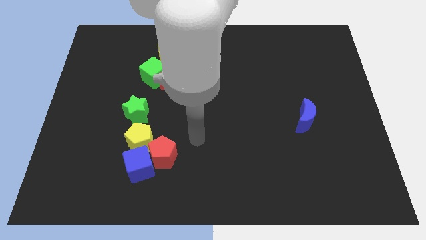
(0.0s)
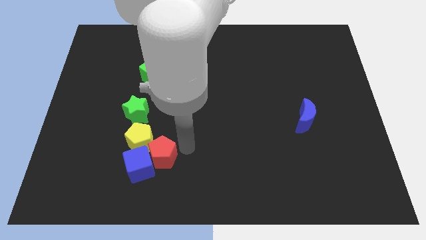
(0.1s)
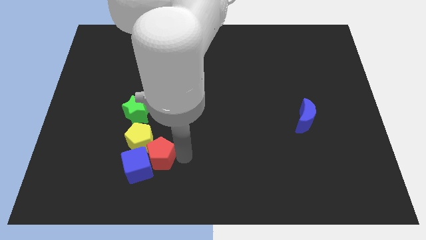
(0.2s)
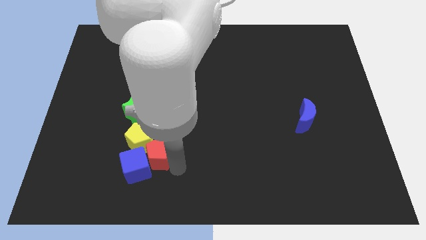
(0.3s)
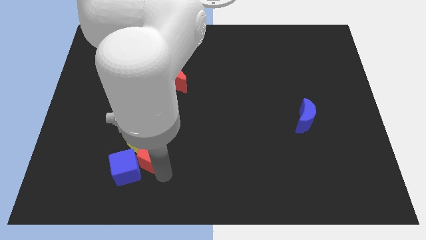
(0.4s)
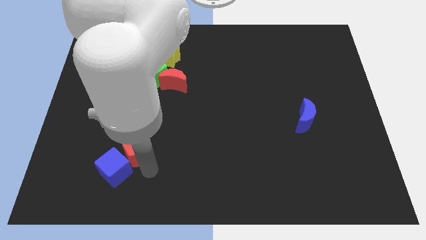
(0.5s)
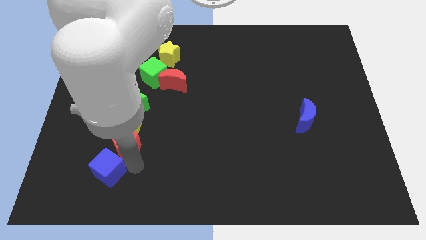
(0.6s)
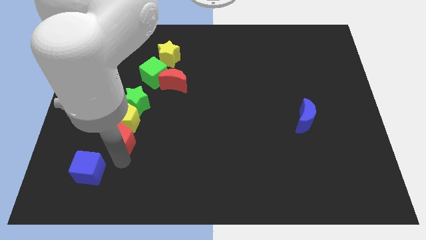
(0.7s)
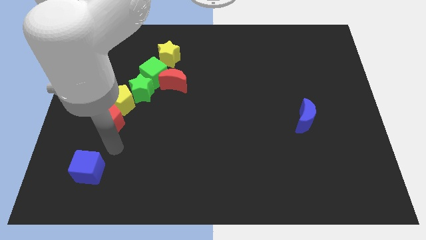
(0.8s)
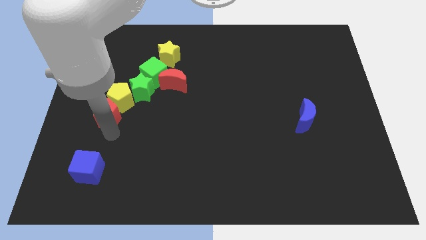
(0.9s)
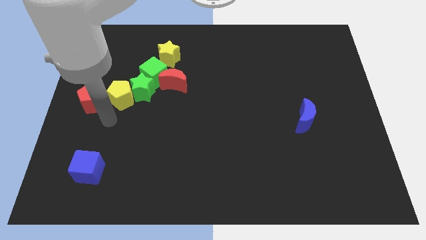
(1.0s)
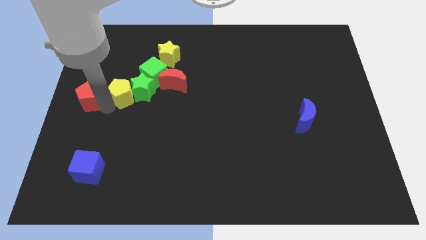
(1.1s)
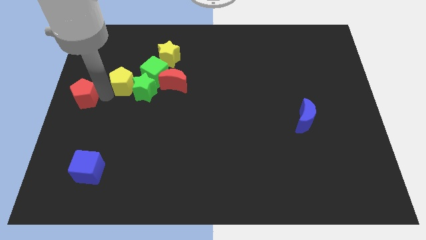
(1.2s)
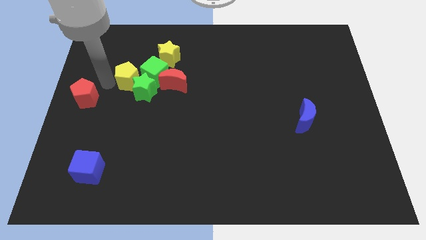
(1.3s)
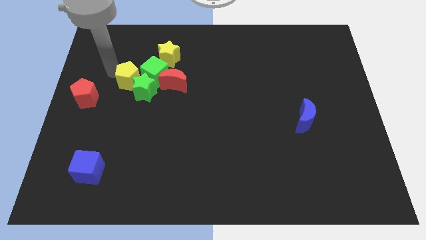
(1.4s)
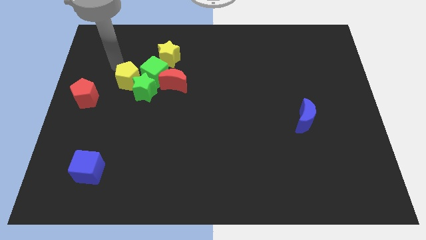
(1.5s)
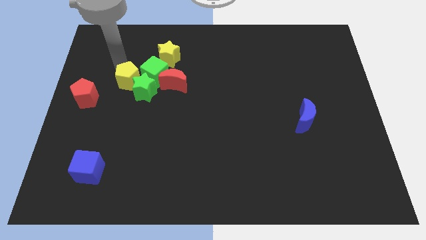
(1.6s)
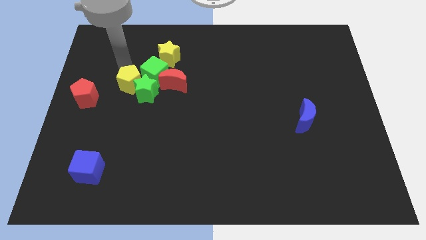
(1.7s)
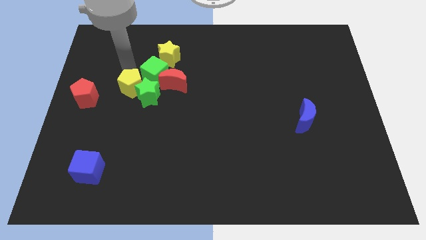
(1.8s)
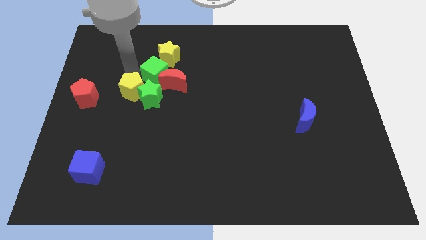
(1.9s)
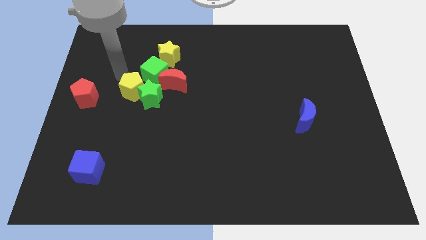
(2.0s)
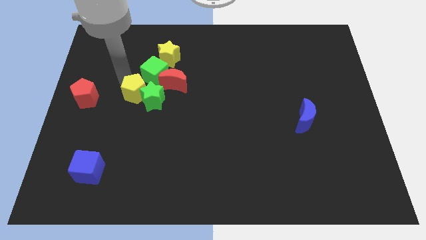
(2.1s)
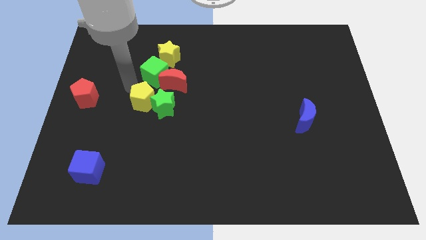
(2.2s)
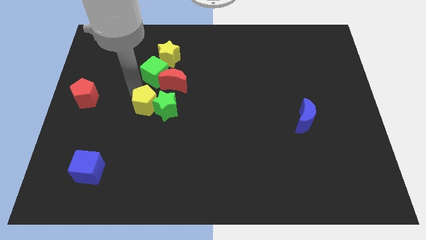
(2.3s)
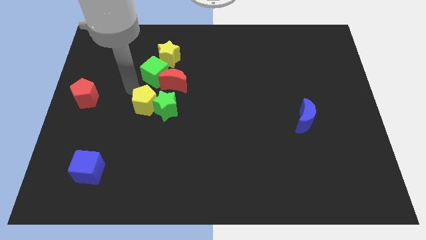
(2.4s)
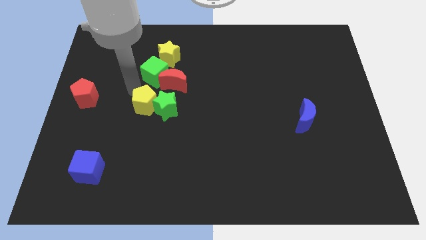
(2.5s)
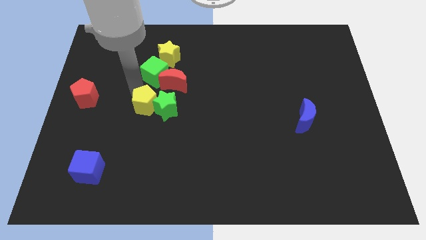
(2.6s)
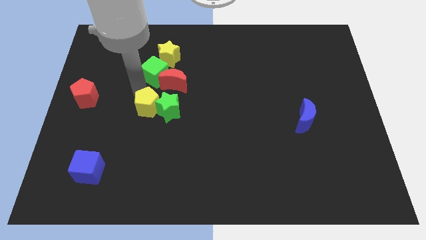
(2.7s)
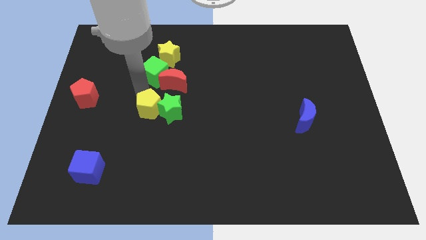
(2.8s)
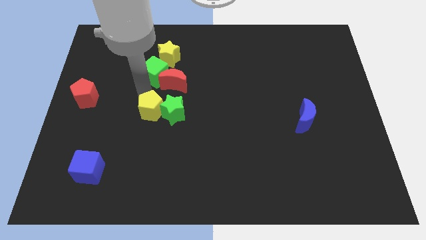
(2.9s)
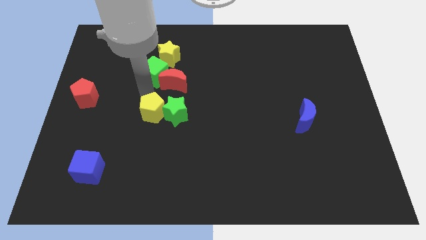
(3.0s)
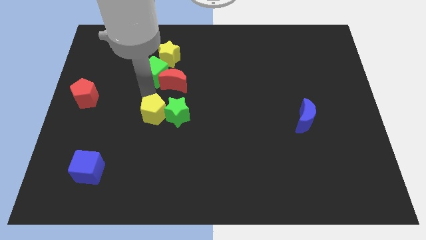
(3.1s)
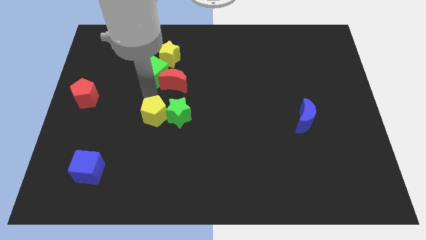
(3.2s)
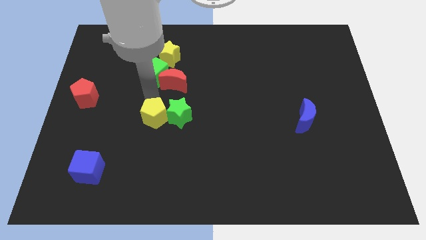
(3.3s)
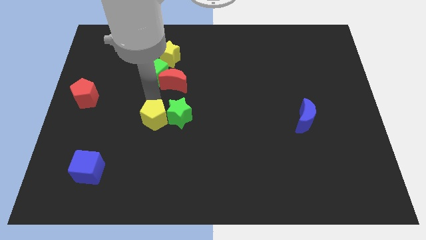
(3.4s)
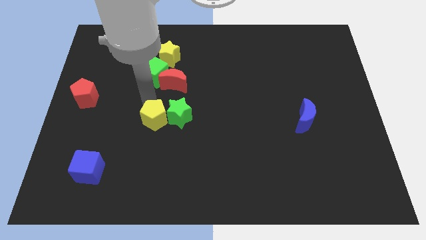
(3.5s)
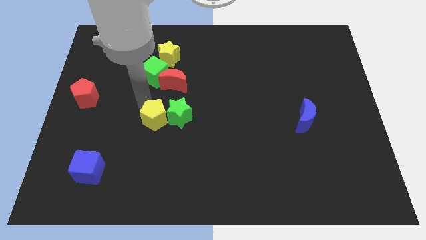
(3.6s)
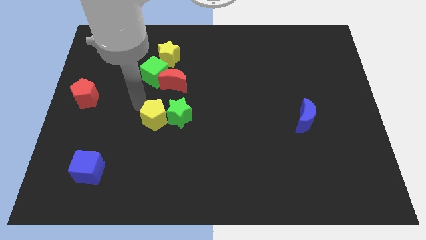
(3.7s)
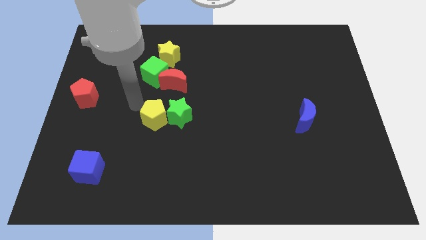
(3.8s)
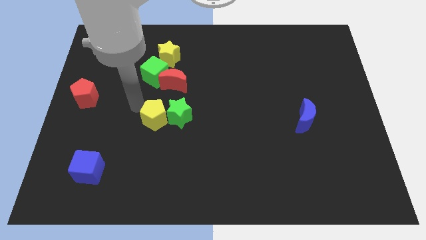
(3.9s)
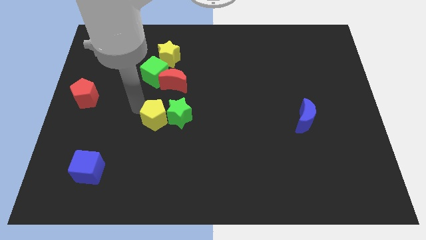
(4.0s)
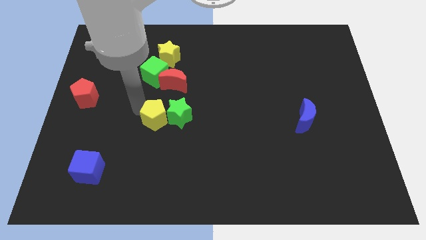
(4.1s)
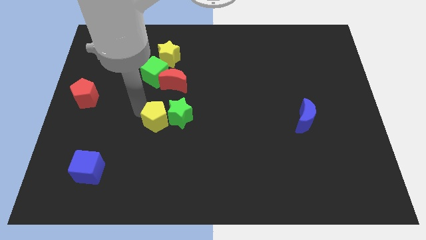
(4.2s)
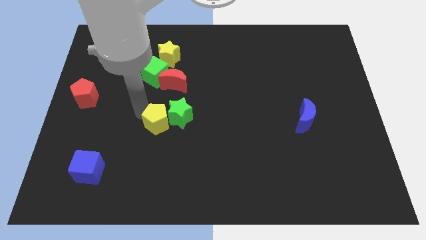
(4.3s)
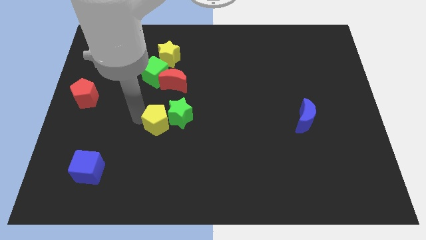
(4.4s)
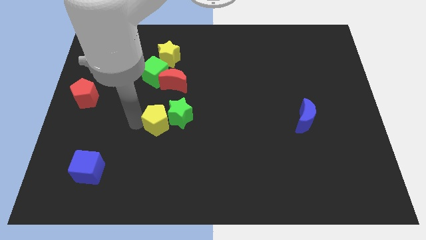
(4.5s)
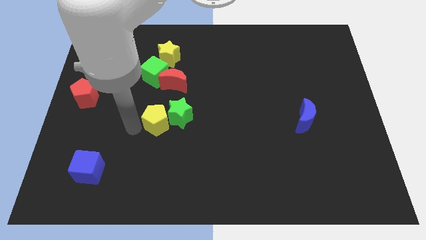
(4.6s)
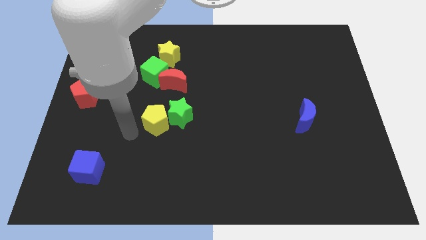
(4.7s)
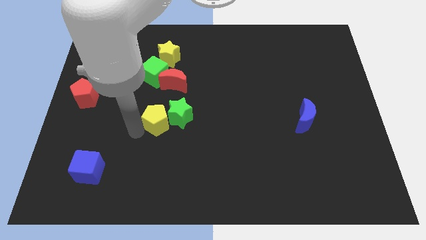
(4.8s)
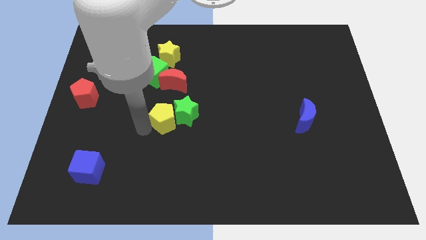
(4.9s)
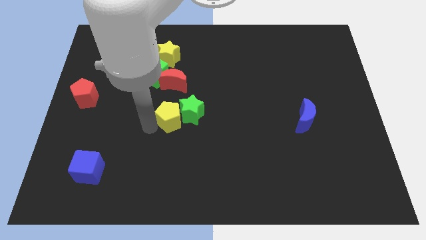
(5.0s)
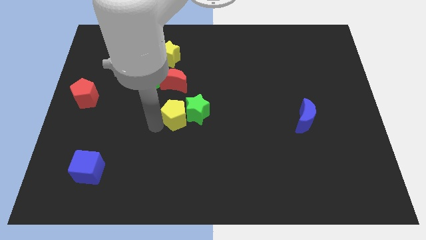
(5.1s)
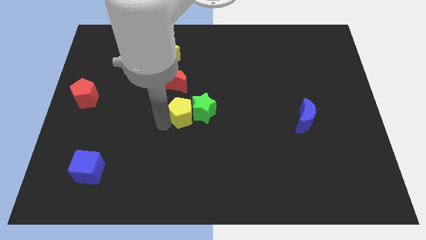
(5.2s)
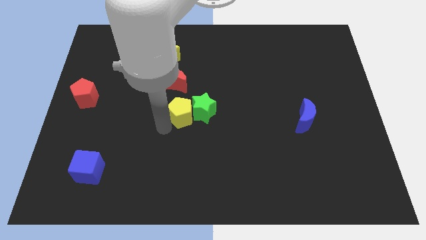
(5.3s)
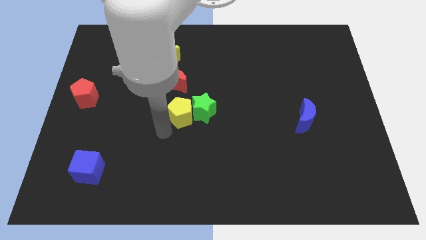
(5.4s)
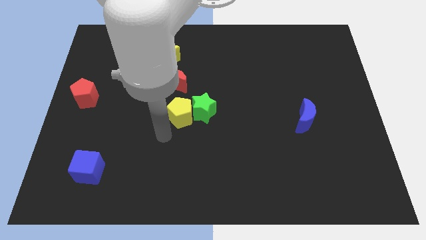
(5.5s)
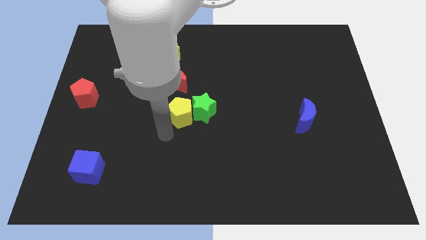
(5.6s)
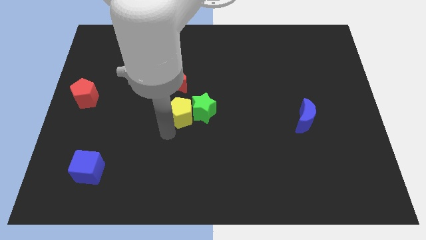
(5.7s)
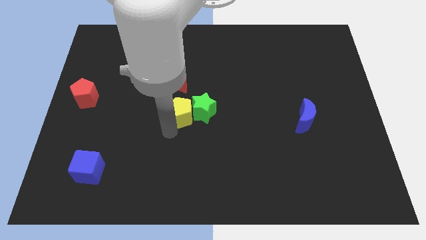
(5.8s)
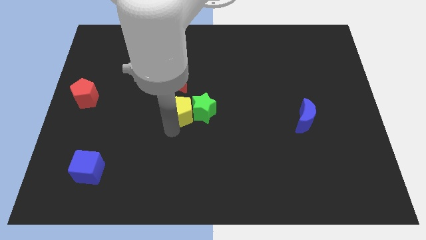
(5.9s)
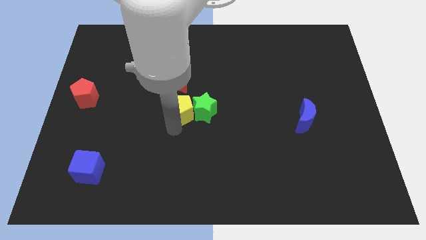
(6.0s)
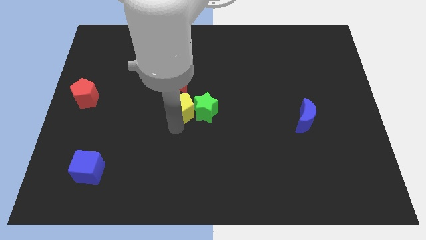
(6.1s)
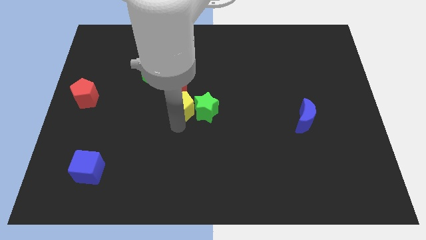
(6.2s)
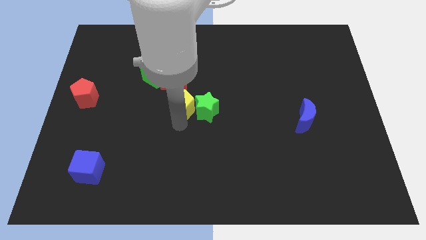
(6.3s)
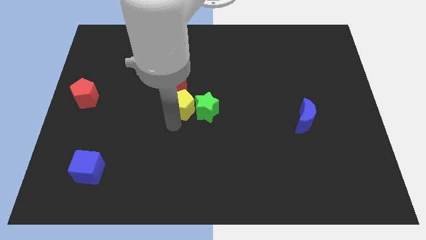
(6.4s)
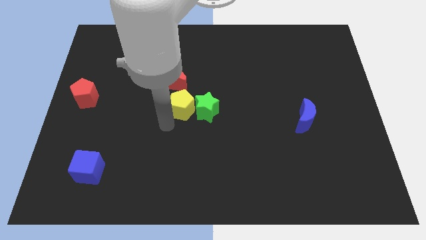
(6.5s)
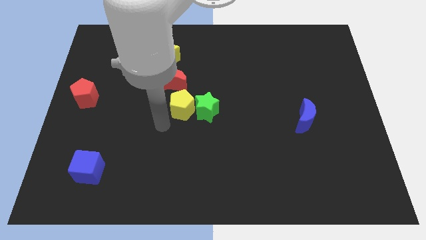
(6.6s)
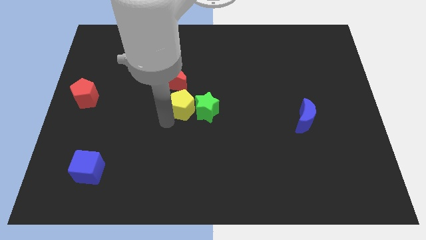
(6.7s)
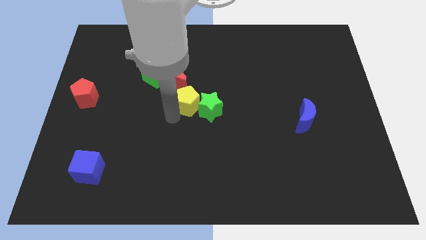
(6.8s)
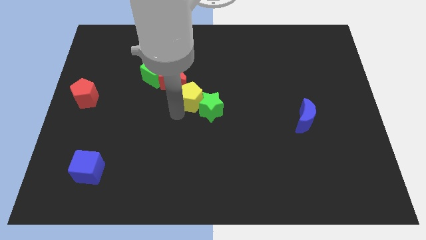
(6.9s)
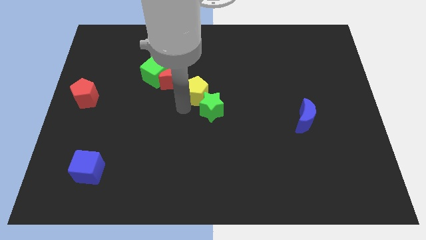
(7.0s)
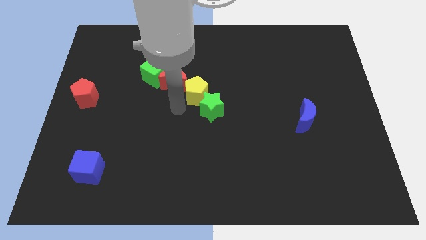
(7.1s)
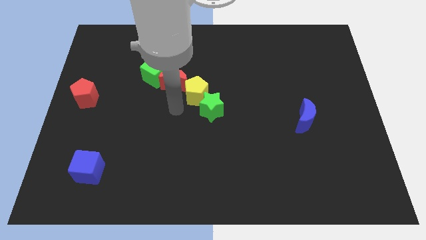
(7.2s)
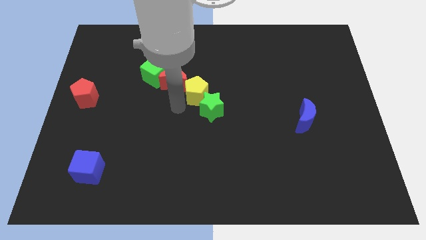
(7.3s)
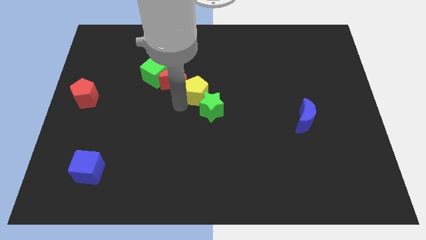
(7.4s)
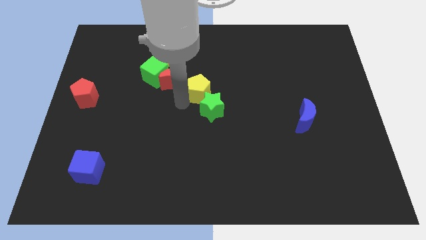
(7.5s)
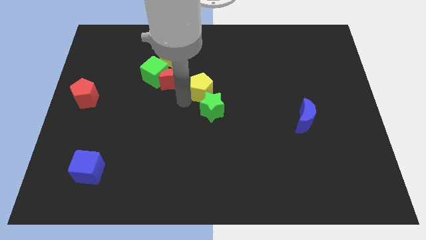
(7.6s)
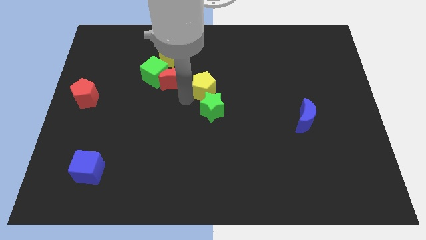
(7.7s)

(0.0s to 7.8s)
move the yellow pentagon diagonally upwards and right

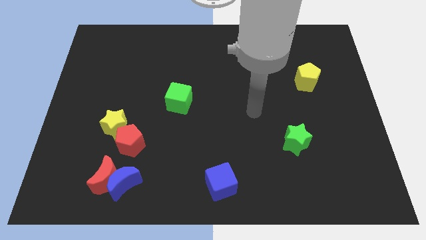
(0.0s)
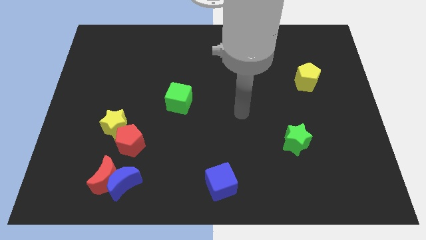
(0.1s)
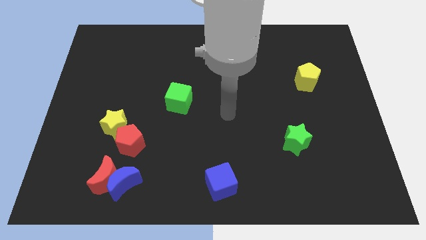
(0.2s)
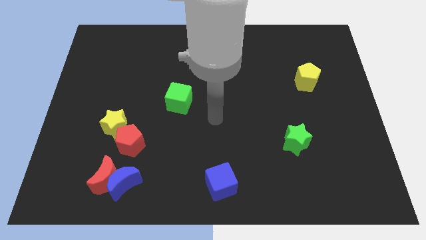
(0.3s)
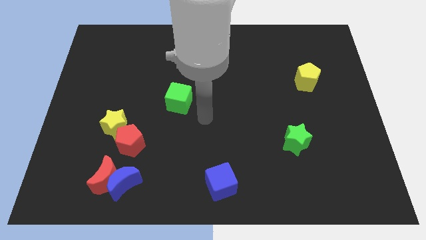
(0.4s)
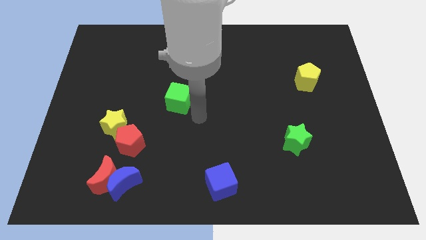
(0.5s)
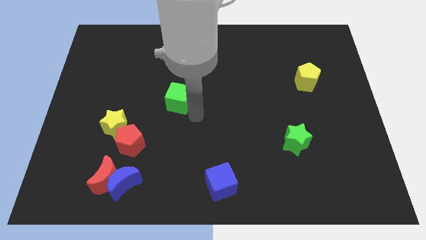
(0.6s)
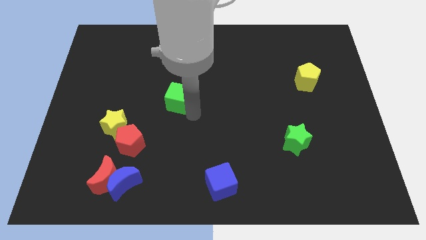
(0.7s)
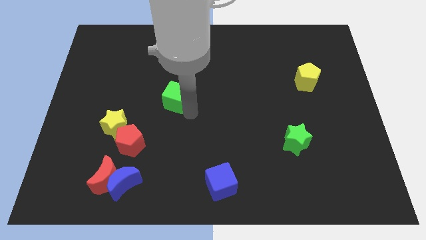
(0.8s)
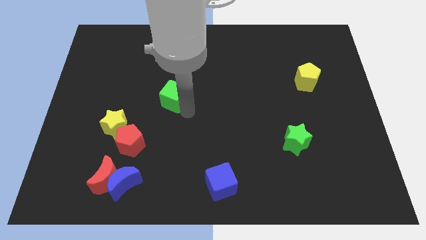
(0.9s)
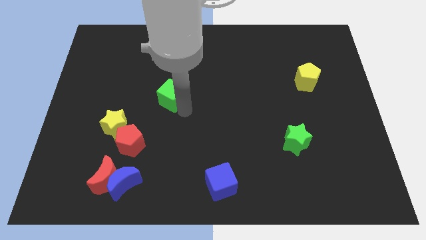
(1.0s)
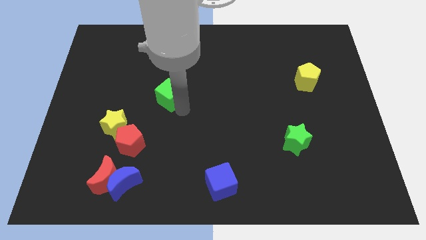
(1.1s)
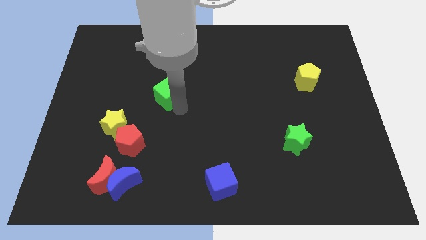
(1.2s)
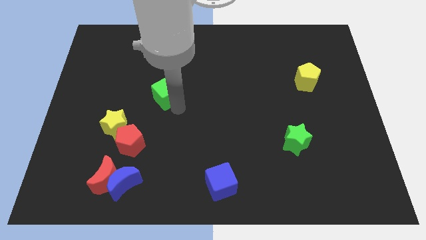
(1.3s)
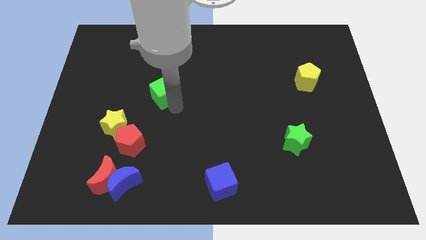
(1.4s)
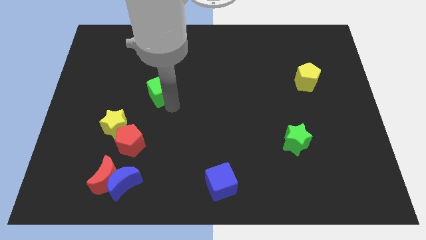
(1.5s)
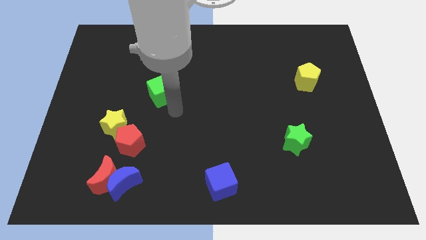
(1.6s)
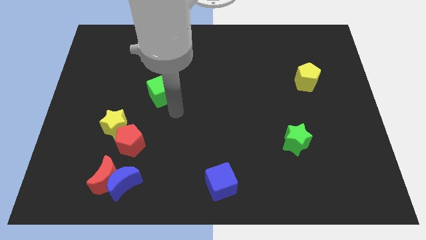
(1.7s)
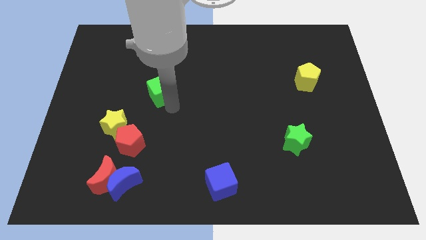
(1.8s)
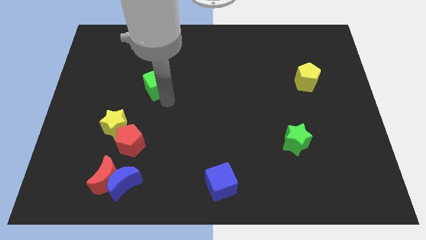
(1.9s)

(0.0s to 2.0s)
move the green cube a little bit up and left
